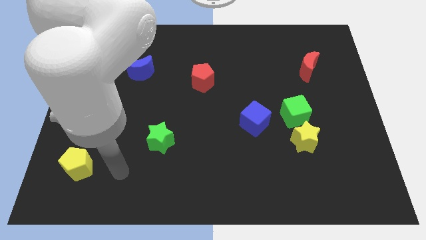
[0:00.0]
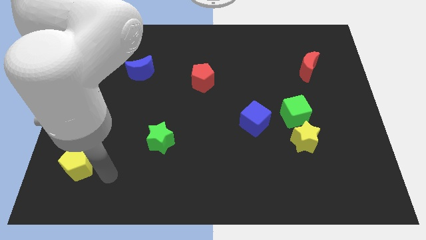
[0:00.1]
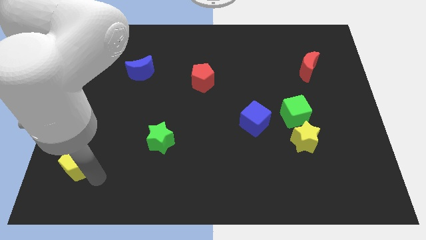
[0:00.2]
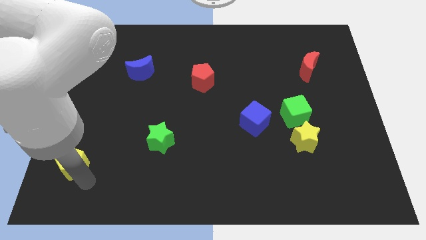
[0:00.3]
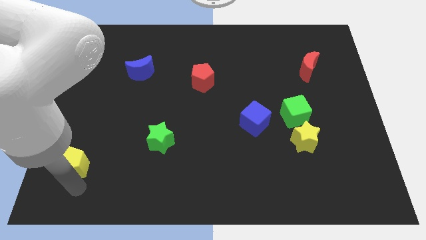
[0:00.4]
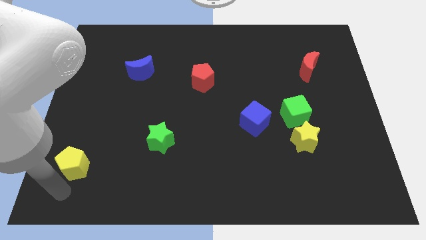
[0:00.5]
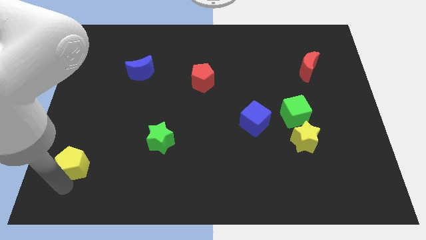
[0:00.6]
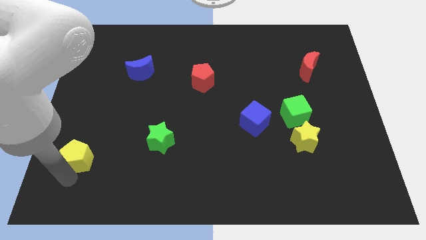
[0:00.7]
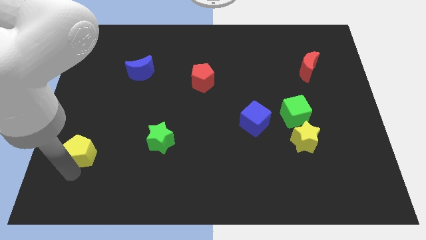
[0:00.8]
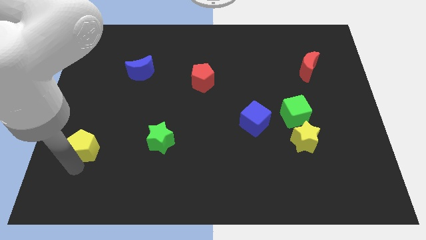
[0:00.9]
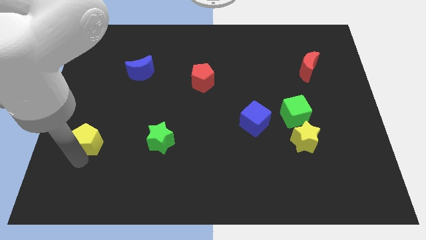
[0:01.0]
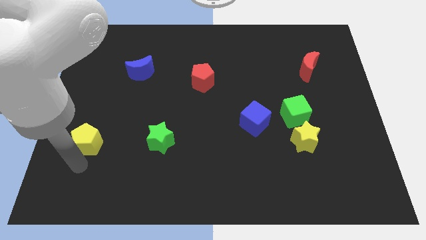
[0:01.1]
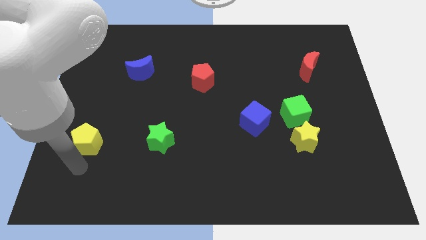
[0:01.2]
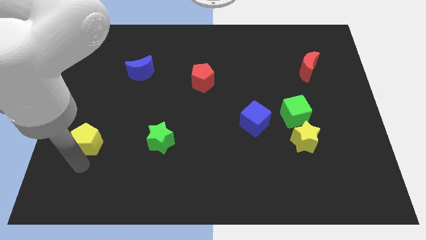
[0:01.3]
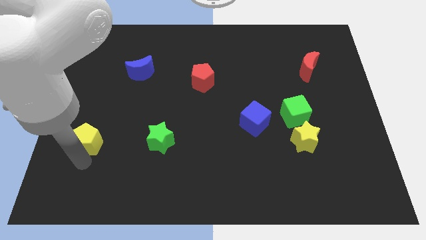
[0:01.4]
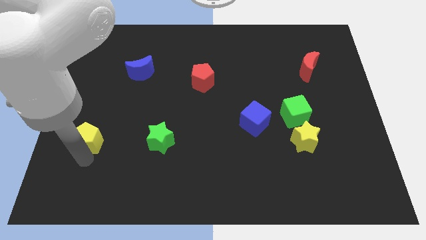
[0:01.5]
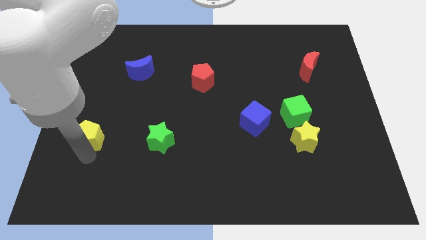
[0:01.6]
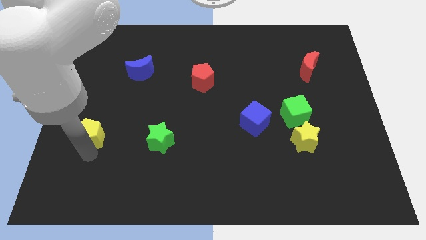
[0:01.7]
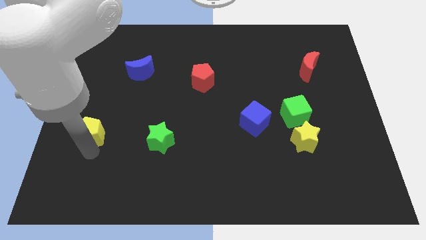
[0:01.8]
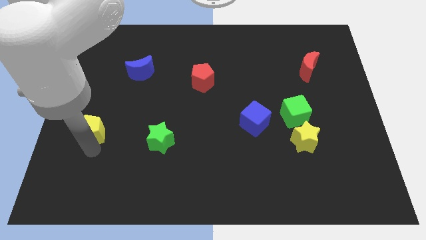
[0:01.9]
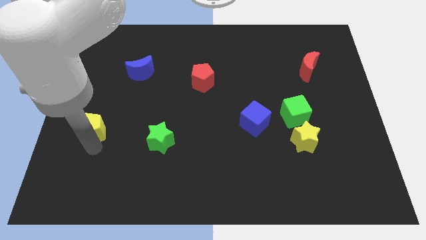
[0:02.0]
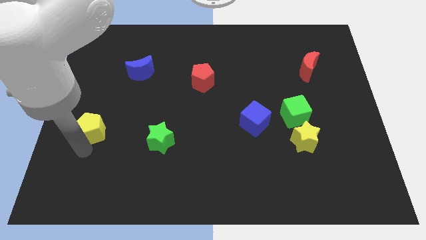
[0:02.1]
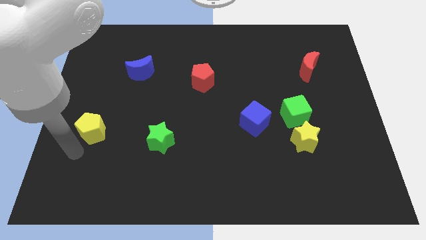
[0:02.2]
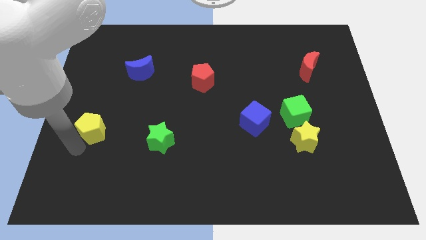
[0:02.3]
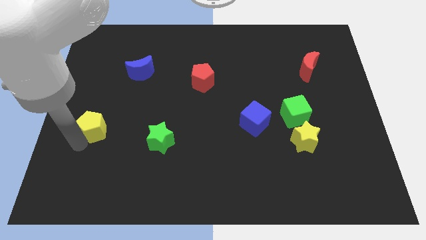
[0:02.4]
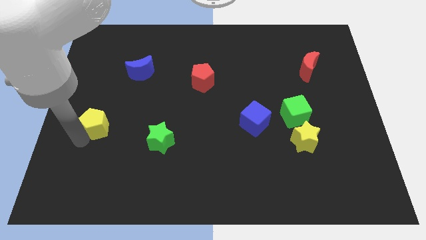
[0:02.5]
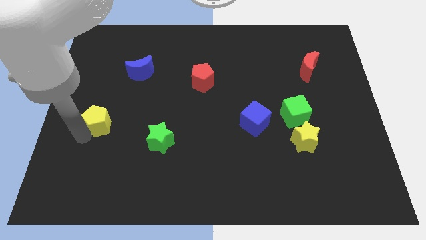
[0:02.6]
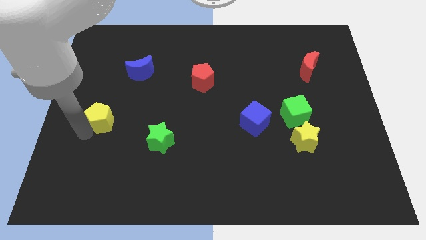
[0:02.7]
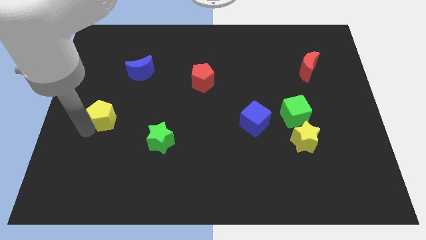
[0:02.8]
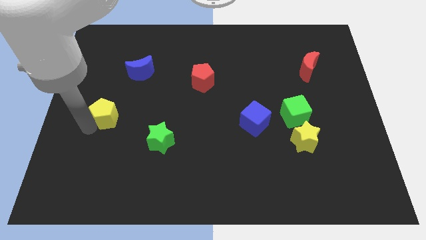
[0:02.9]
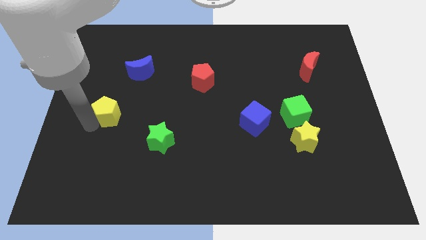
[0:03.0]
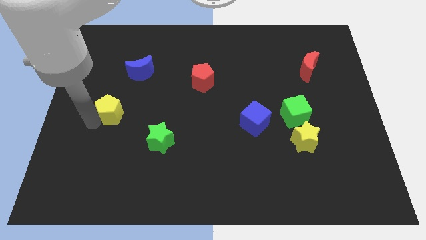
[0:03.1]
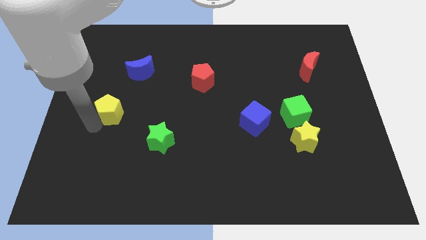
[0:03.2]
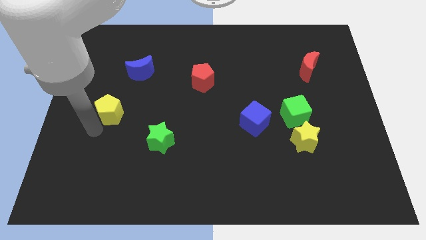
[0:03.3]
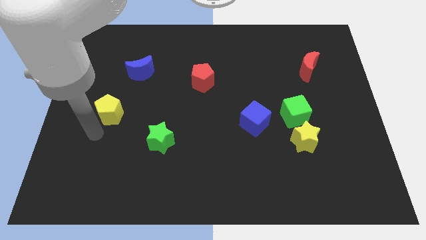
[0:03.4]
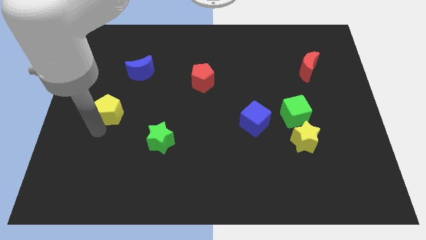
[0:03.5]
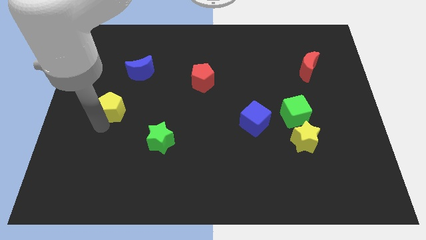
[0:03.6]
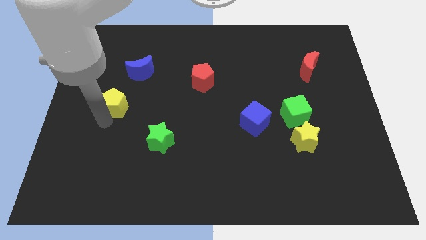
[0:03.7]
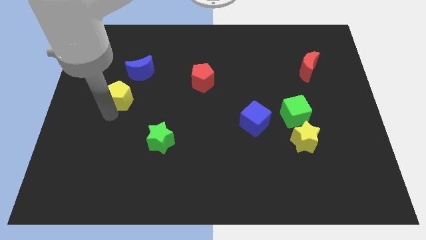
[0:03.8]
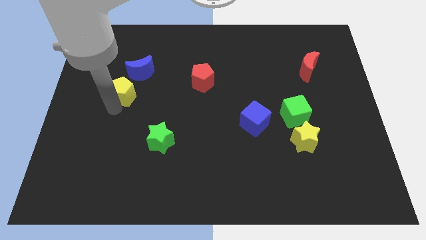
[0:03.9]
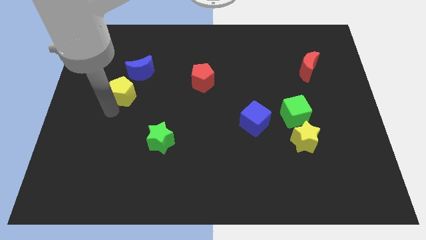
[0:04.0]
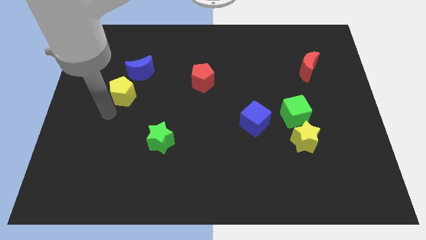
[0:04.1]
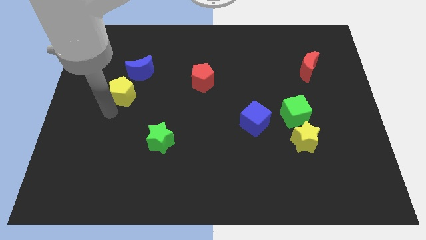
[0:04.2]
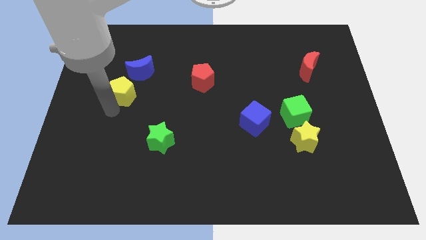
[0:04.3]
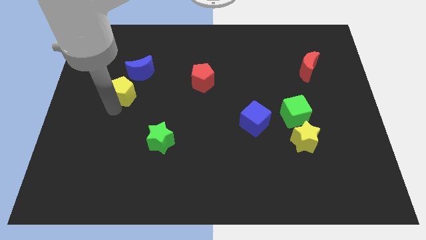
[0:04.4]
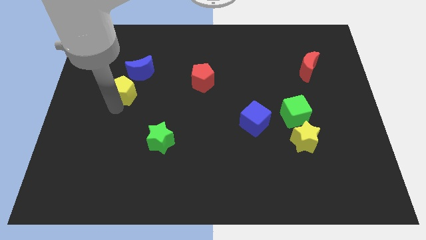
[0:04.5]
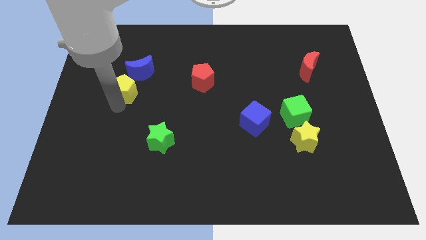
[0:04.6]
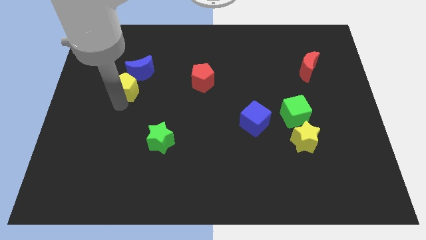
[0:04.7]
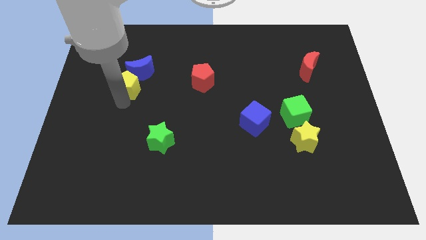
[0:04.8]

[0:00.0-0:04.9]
push the yellow pentagon close to the blue moon

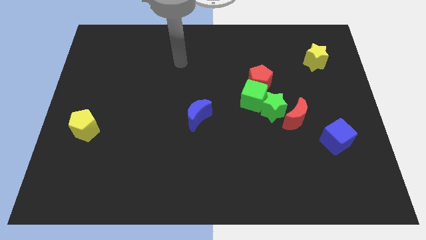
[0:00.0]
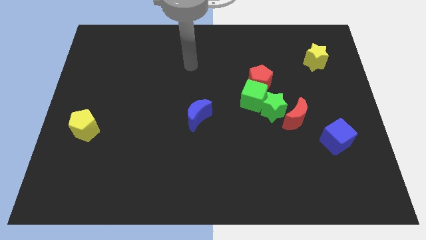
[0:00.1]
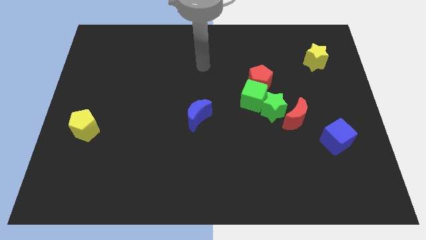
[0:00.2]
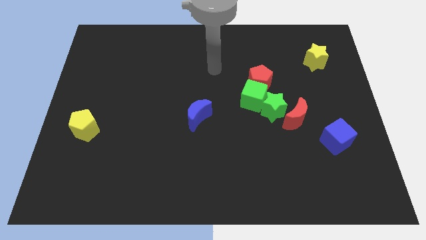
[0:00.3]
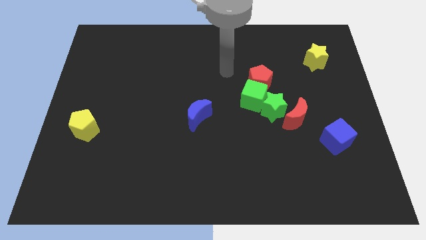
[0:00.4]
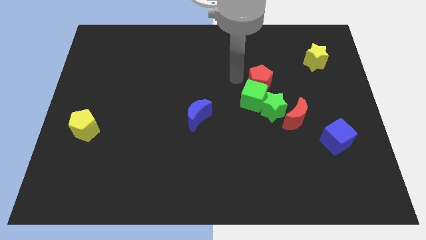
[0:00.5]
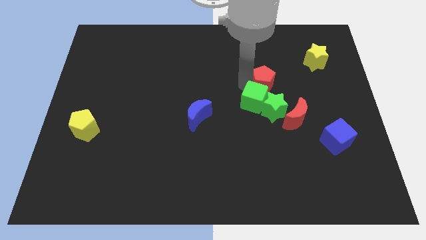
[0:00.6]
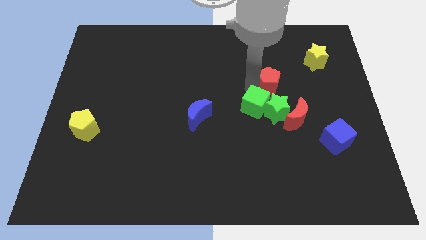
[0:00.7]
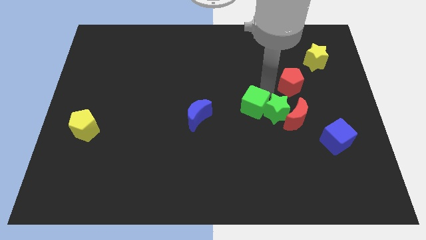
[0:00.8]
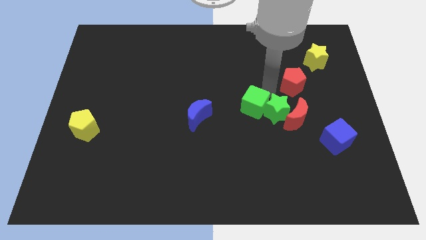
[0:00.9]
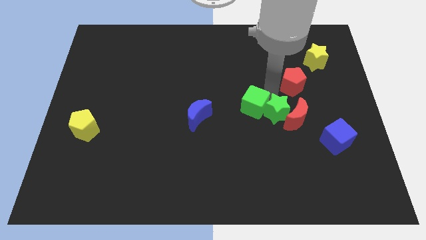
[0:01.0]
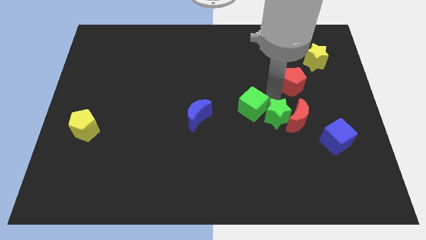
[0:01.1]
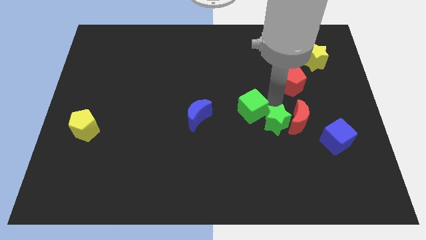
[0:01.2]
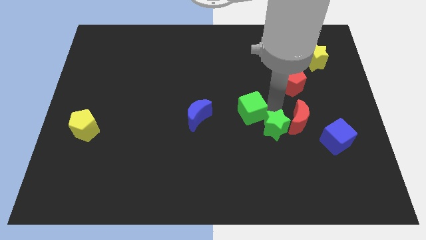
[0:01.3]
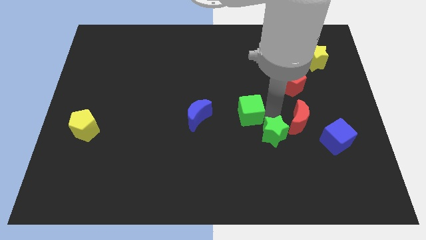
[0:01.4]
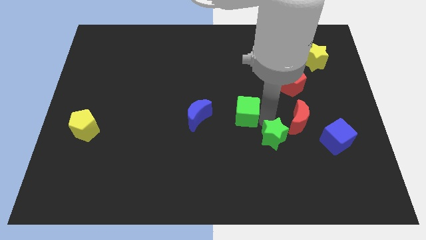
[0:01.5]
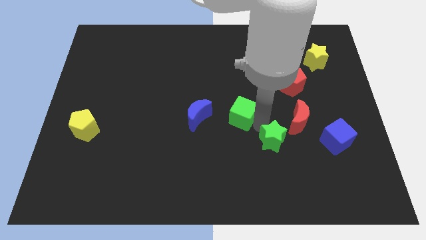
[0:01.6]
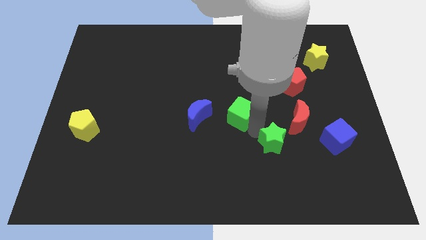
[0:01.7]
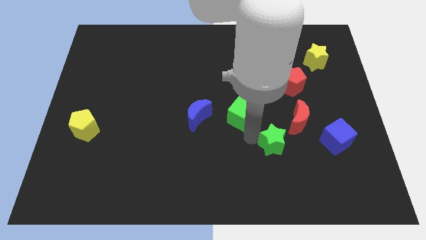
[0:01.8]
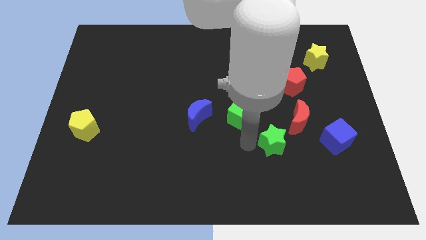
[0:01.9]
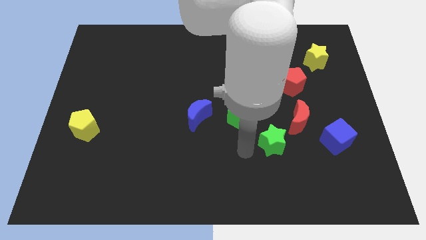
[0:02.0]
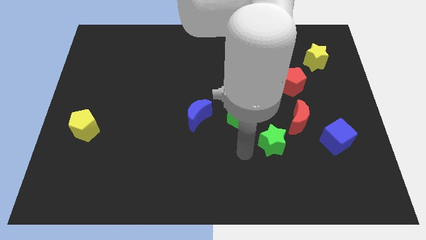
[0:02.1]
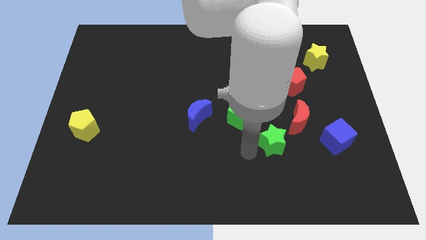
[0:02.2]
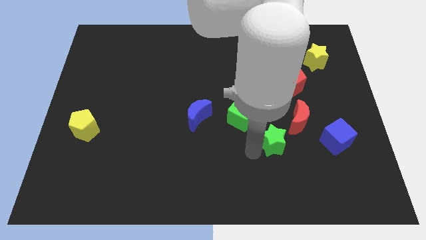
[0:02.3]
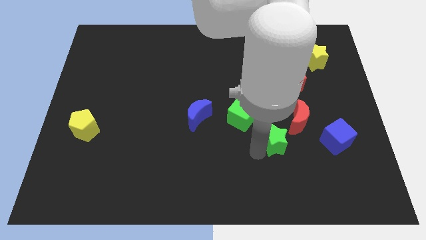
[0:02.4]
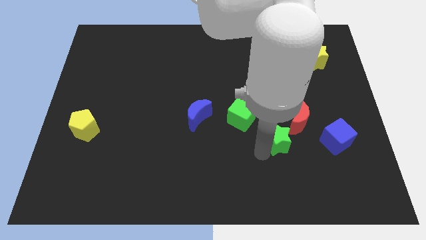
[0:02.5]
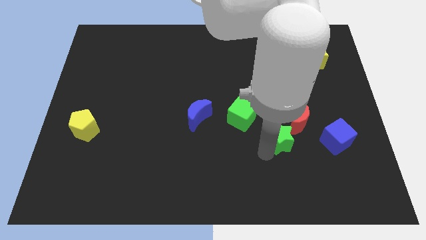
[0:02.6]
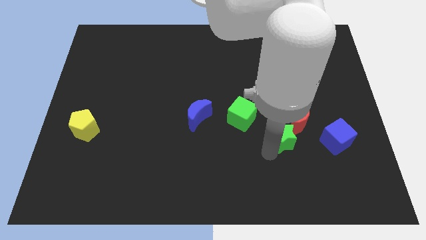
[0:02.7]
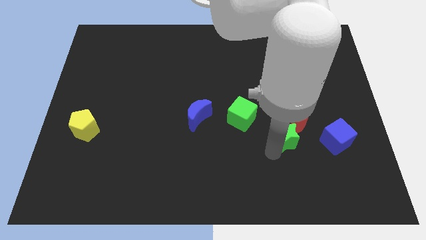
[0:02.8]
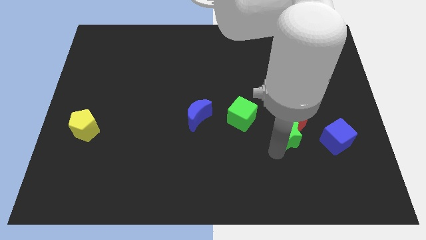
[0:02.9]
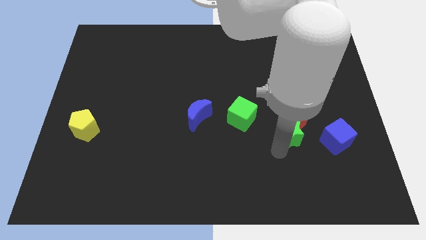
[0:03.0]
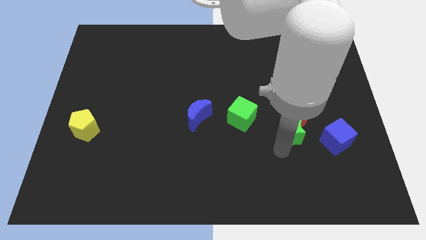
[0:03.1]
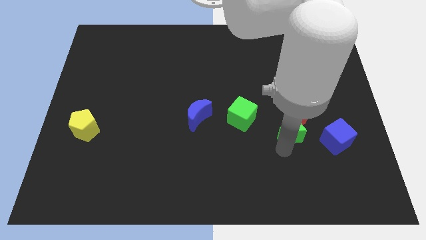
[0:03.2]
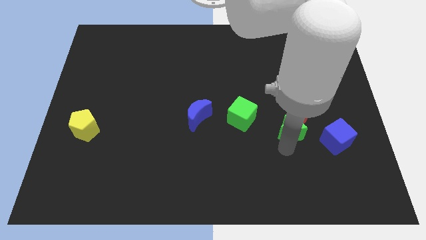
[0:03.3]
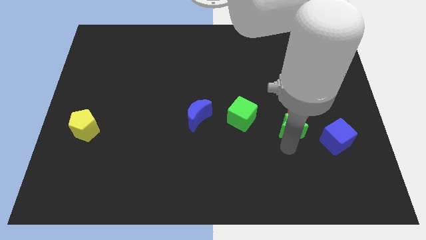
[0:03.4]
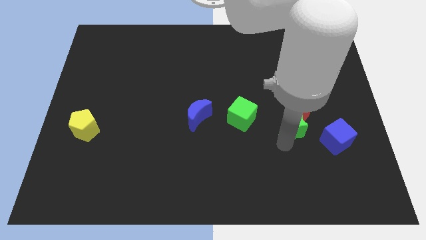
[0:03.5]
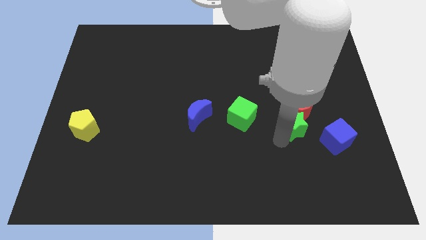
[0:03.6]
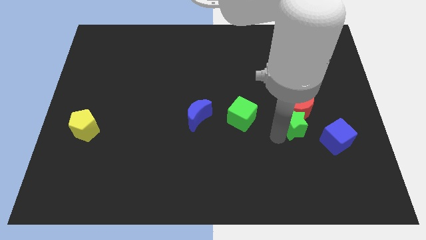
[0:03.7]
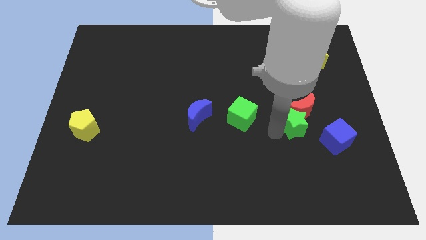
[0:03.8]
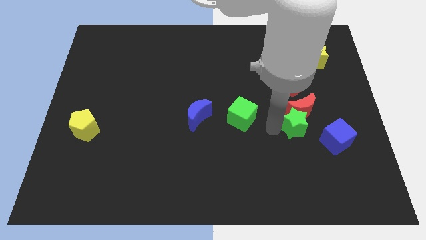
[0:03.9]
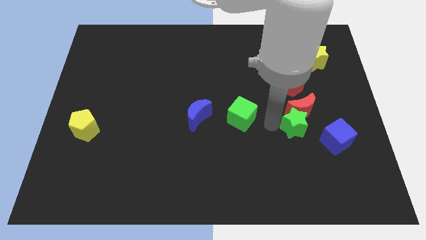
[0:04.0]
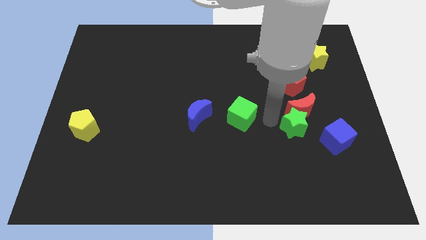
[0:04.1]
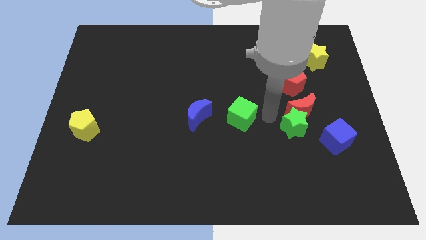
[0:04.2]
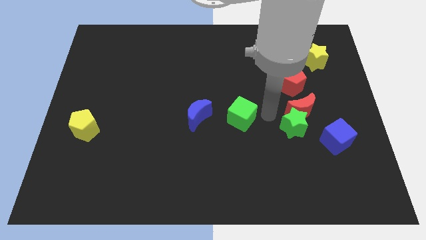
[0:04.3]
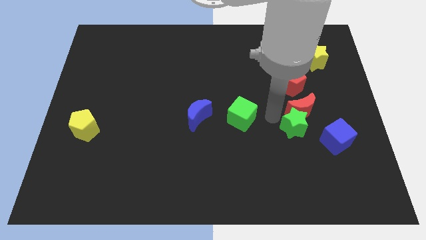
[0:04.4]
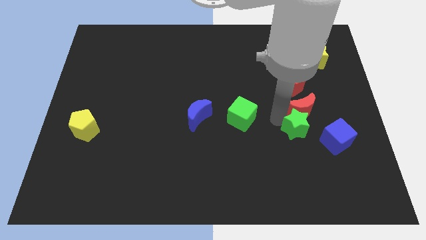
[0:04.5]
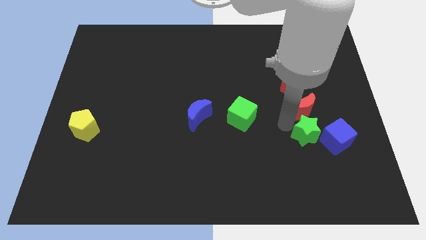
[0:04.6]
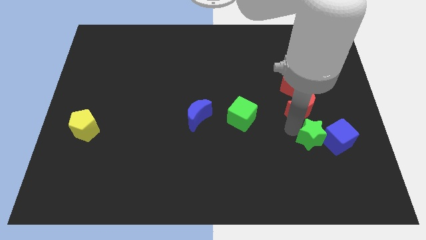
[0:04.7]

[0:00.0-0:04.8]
put the green star to the blue cube
